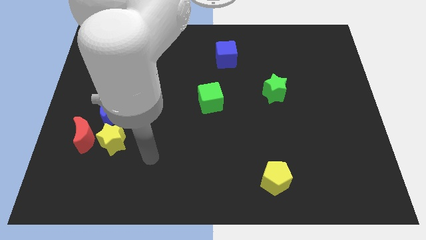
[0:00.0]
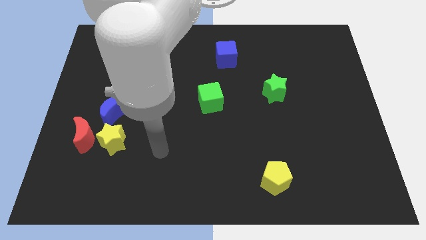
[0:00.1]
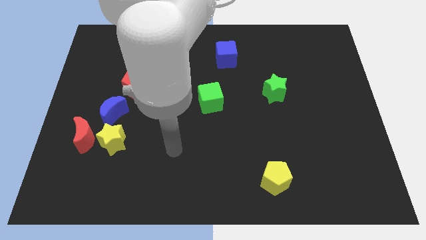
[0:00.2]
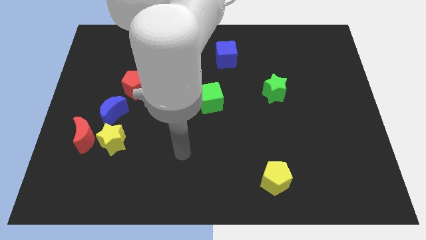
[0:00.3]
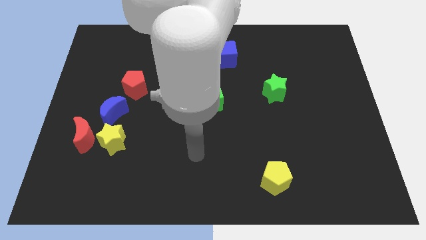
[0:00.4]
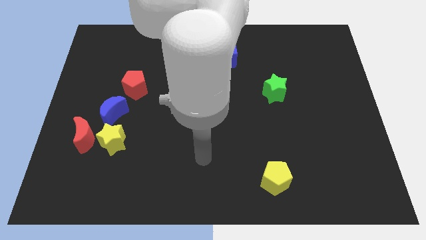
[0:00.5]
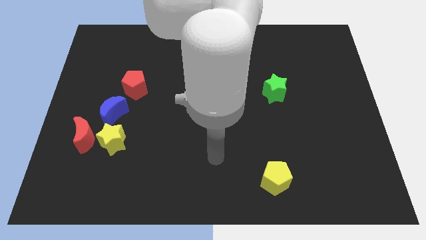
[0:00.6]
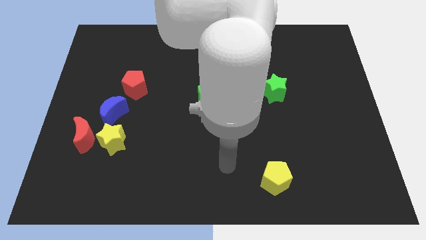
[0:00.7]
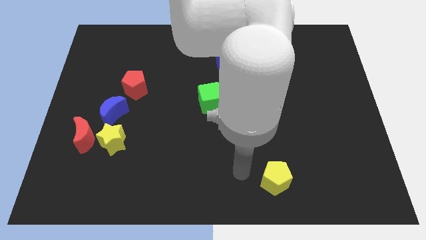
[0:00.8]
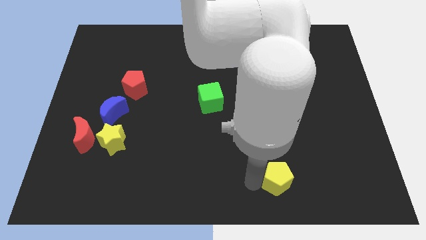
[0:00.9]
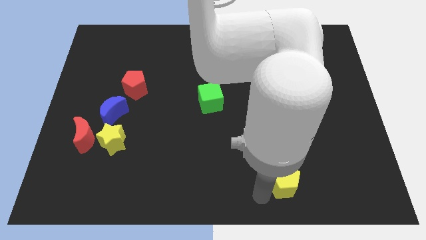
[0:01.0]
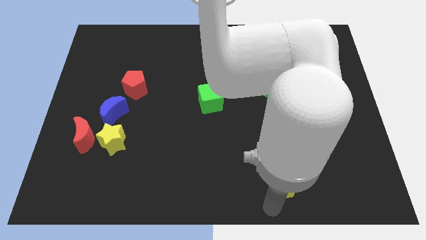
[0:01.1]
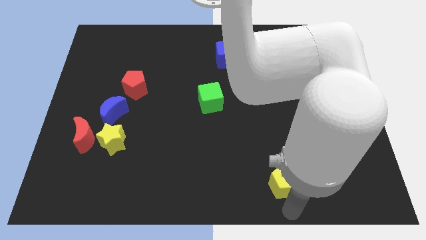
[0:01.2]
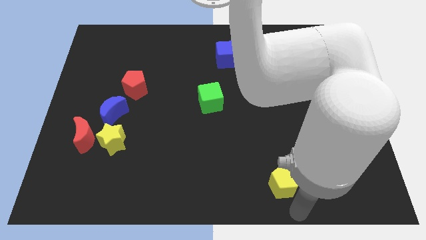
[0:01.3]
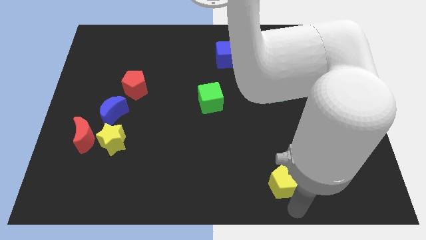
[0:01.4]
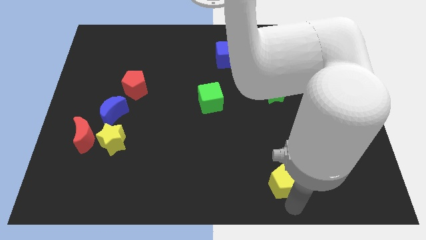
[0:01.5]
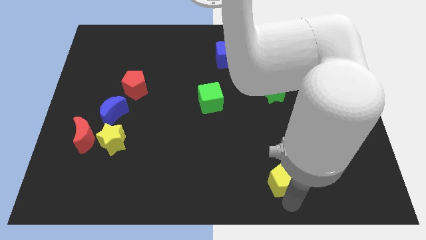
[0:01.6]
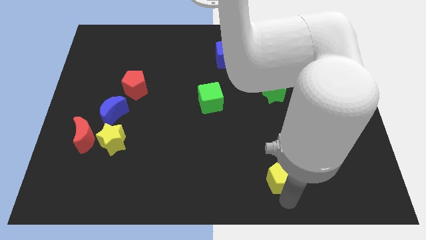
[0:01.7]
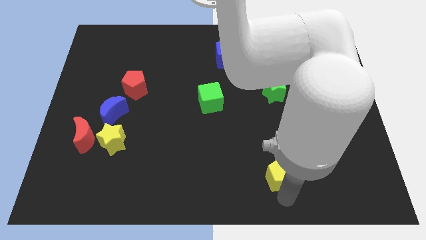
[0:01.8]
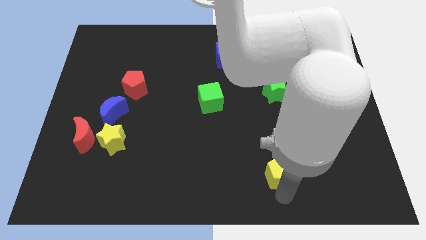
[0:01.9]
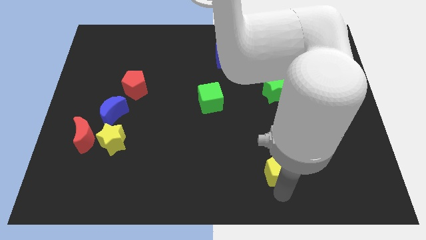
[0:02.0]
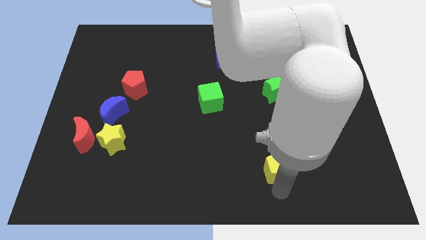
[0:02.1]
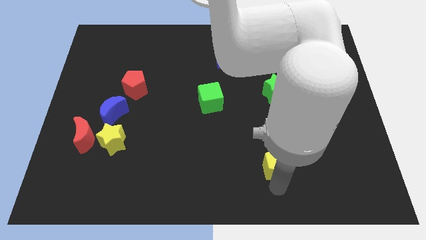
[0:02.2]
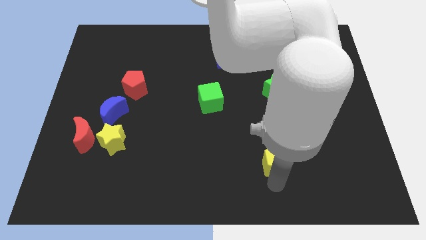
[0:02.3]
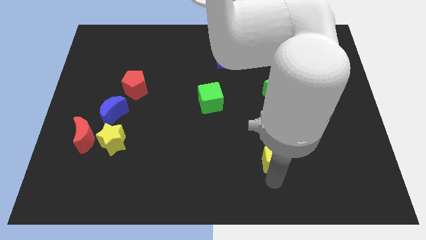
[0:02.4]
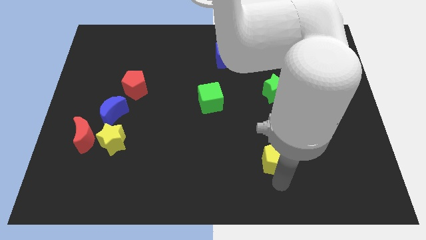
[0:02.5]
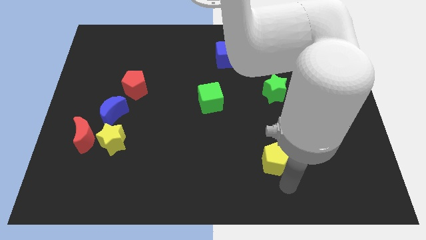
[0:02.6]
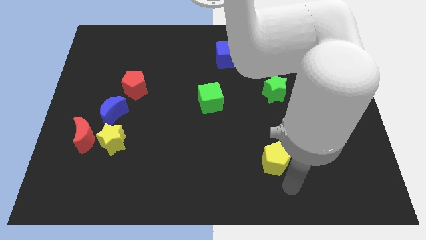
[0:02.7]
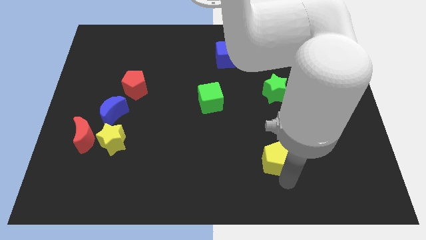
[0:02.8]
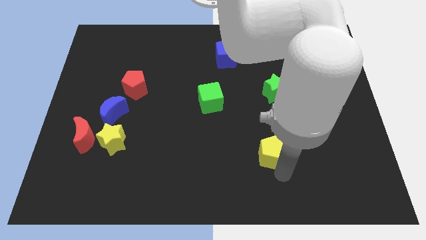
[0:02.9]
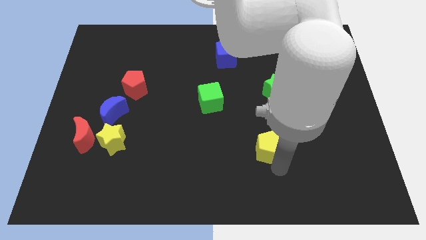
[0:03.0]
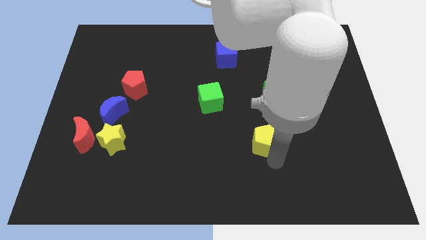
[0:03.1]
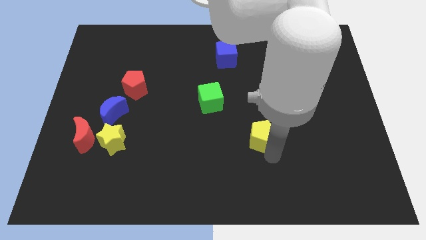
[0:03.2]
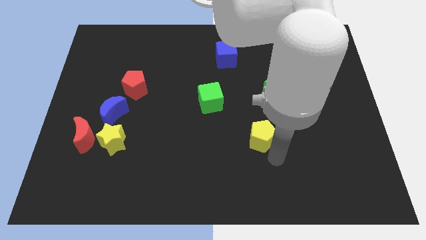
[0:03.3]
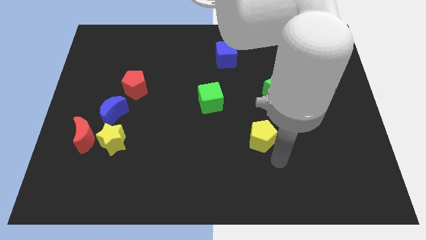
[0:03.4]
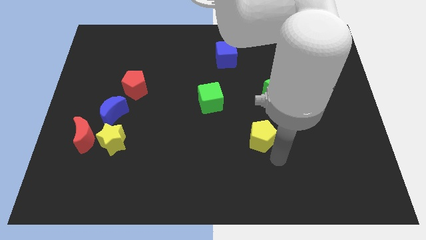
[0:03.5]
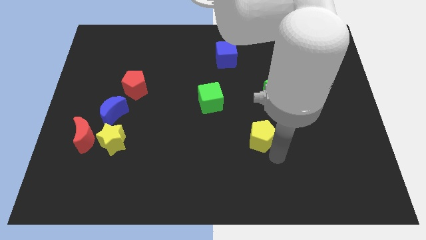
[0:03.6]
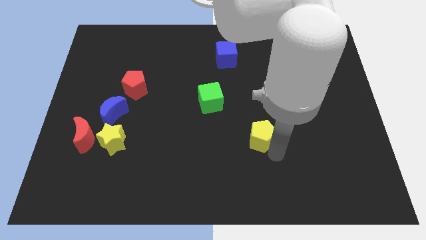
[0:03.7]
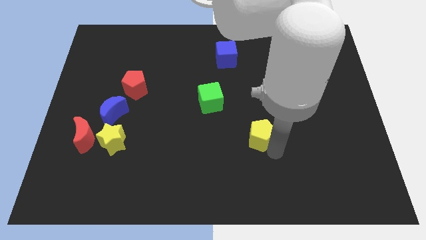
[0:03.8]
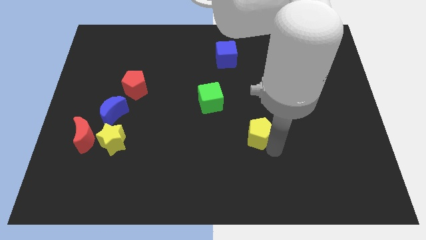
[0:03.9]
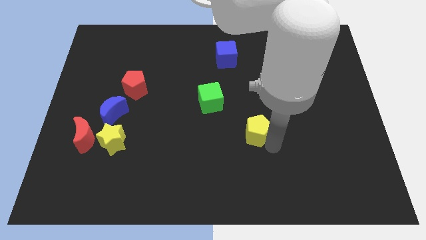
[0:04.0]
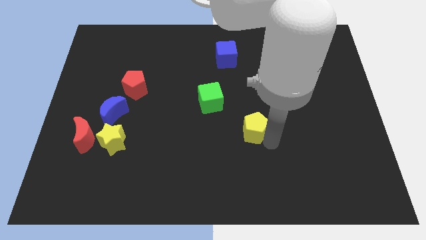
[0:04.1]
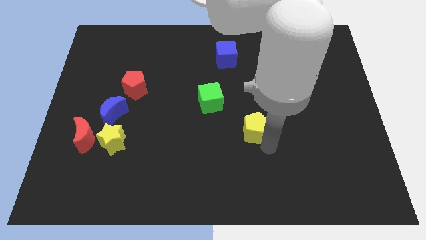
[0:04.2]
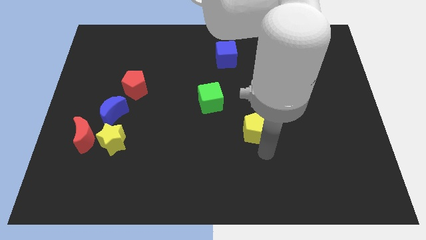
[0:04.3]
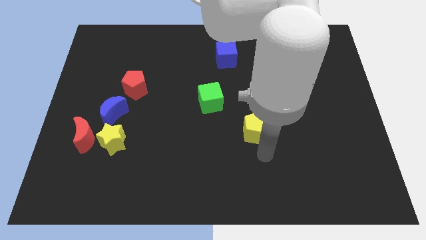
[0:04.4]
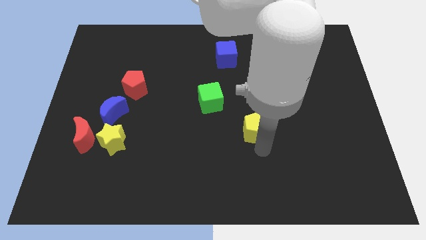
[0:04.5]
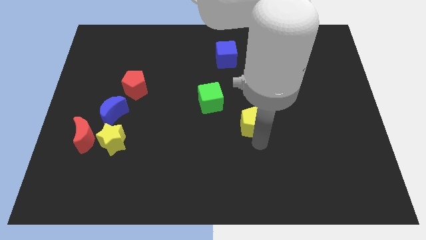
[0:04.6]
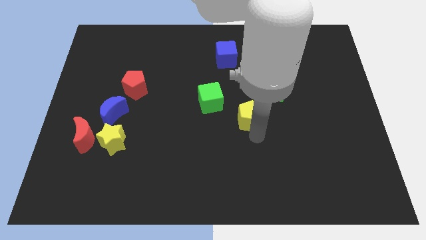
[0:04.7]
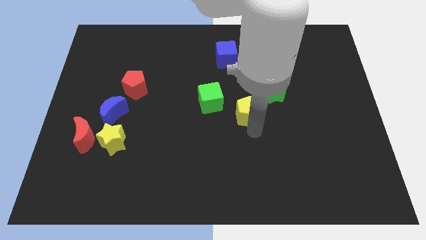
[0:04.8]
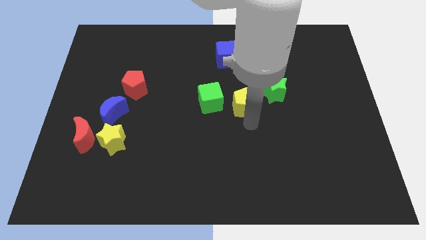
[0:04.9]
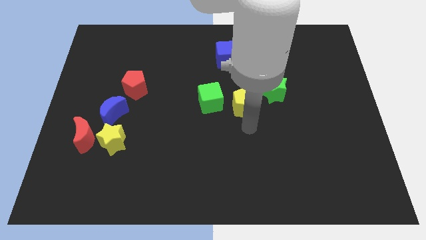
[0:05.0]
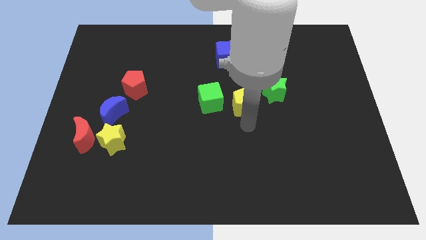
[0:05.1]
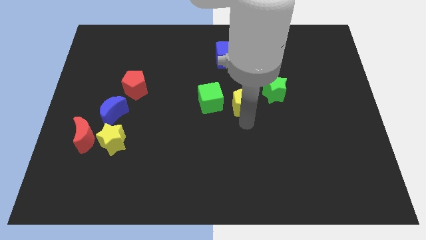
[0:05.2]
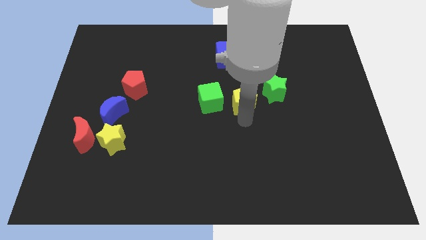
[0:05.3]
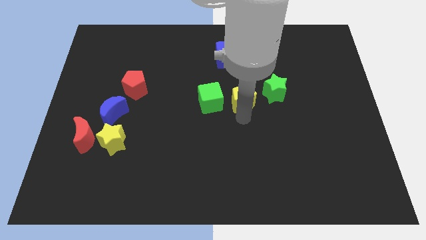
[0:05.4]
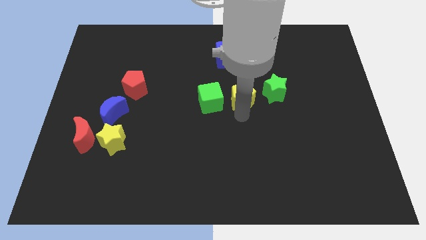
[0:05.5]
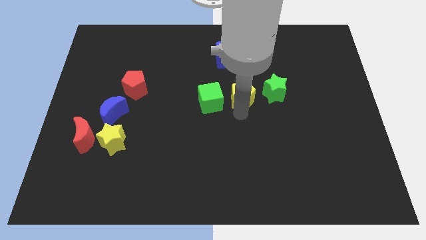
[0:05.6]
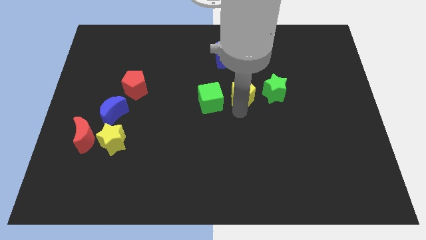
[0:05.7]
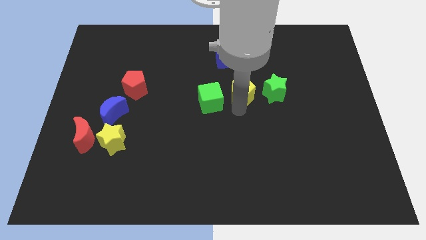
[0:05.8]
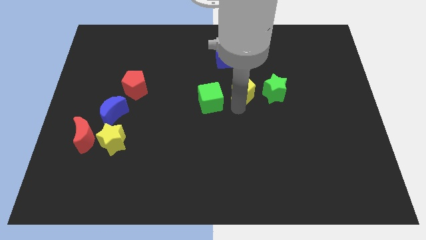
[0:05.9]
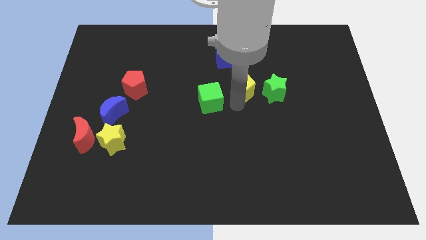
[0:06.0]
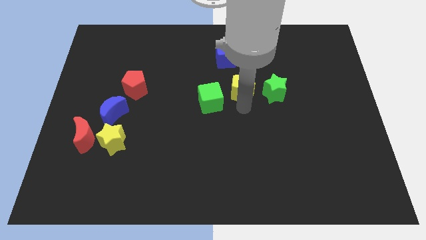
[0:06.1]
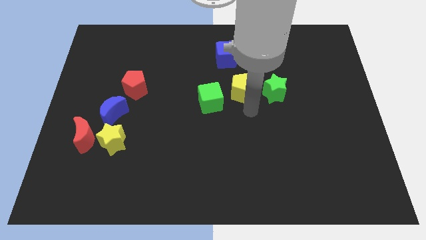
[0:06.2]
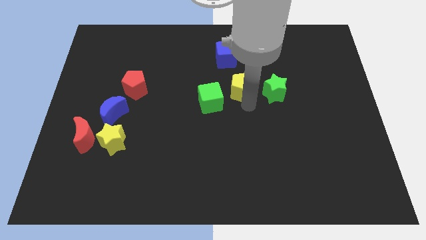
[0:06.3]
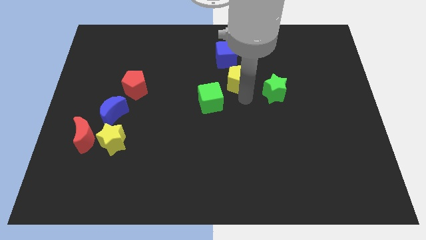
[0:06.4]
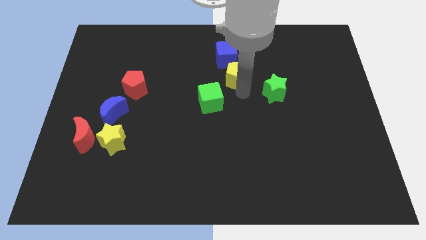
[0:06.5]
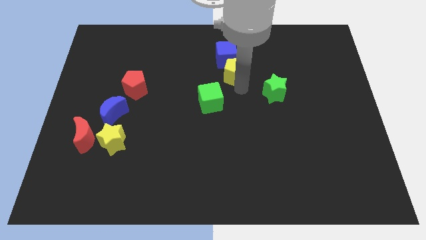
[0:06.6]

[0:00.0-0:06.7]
push the yellow pentagon towards the blue cube

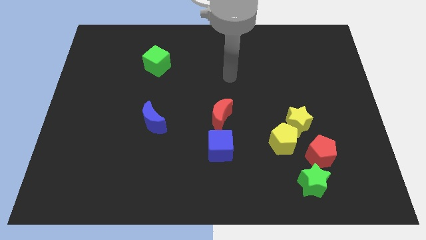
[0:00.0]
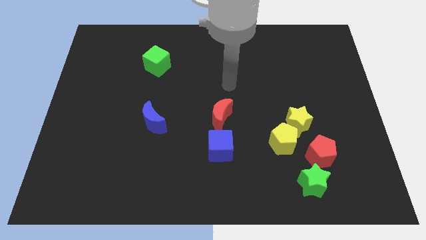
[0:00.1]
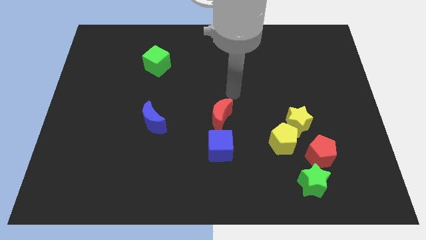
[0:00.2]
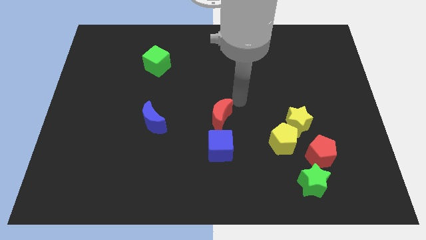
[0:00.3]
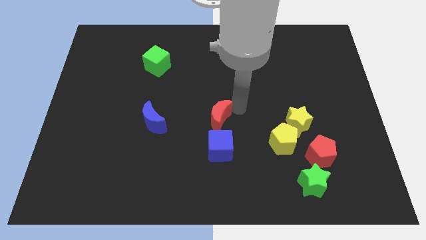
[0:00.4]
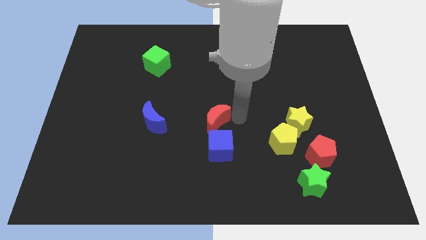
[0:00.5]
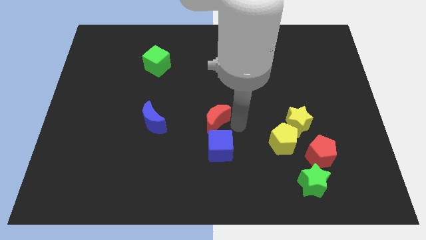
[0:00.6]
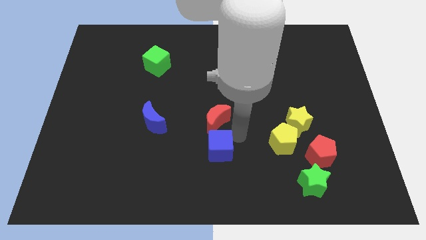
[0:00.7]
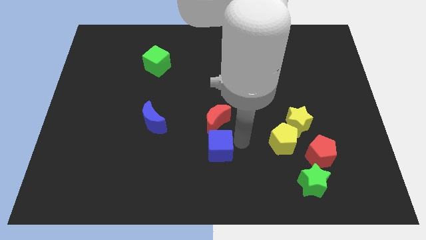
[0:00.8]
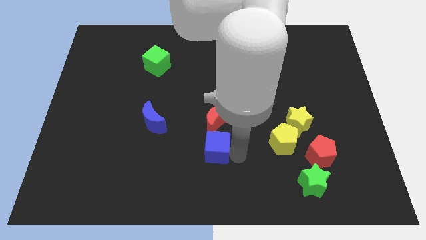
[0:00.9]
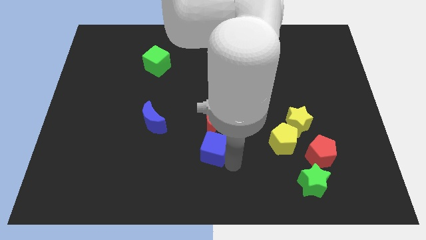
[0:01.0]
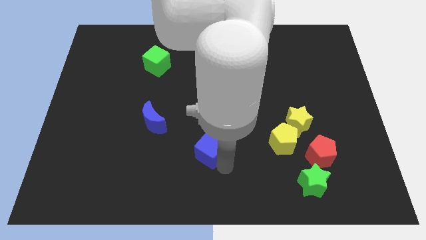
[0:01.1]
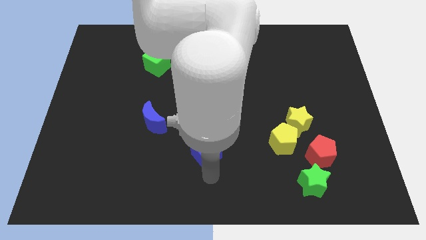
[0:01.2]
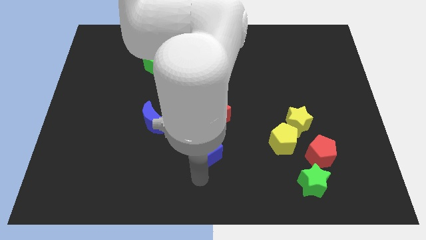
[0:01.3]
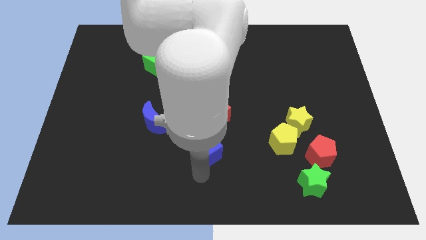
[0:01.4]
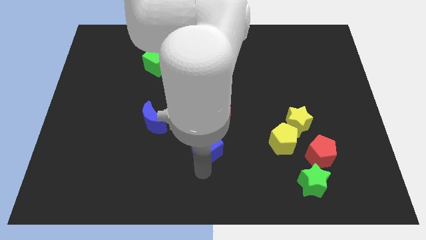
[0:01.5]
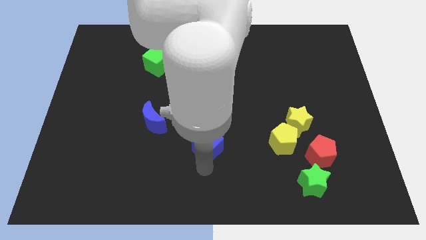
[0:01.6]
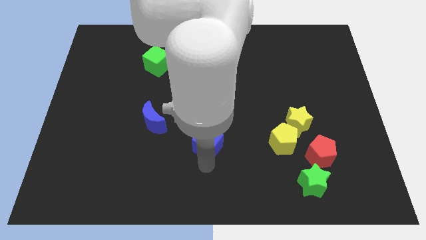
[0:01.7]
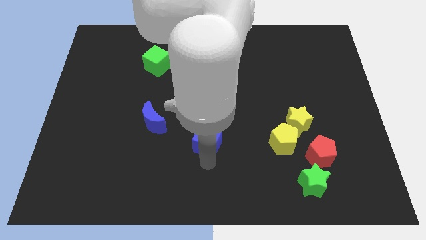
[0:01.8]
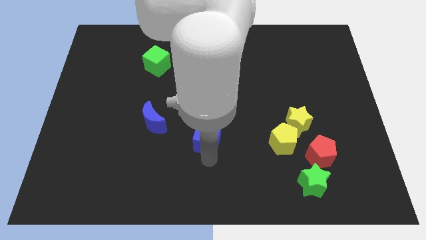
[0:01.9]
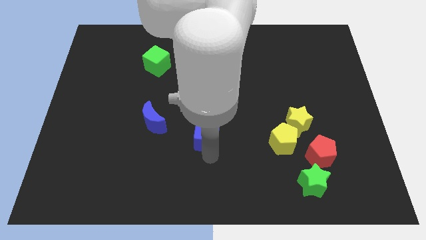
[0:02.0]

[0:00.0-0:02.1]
slide the blue cube next to the red moon
